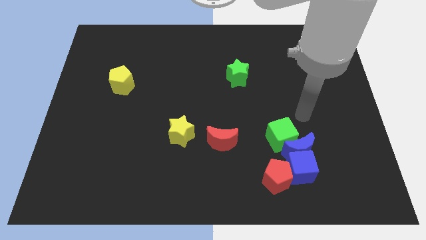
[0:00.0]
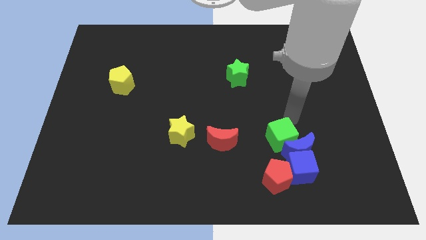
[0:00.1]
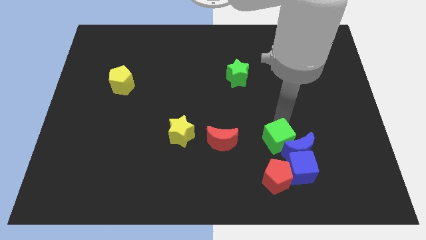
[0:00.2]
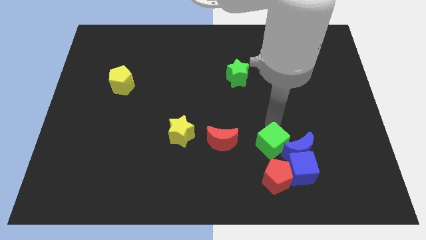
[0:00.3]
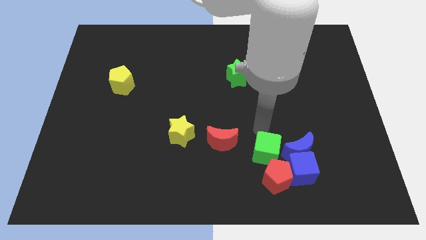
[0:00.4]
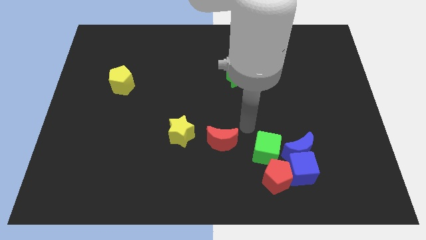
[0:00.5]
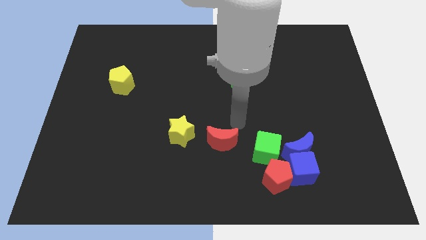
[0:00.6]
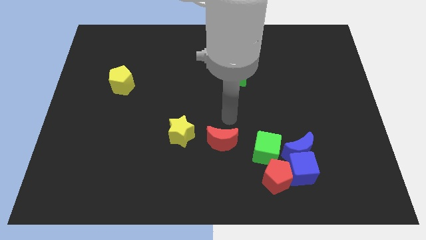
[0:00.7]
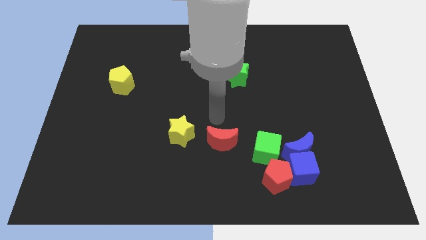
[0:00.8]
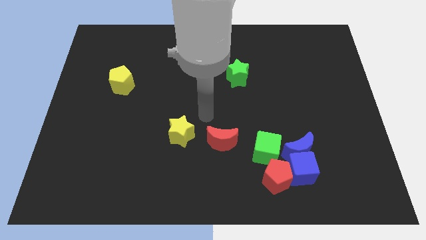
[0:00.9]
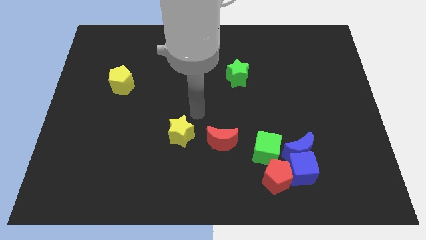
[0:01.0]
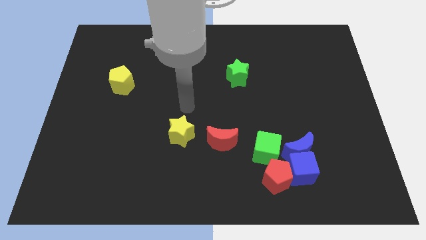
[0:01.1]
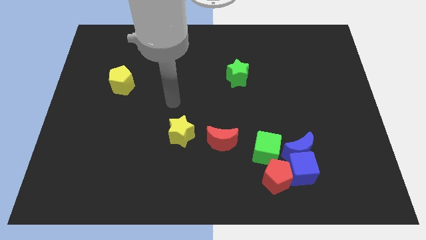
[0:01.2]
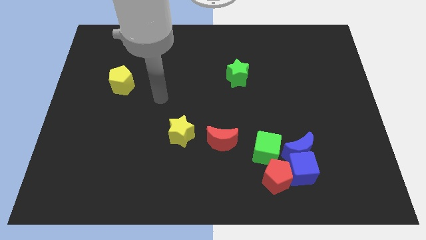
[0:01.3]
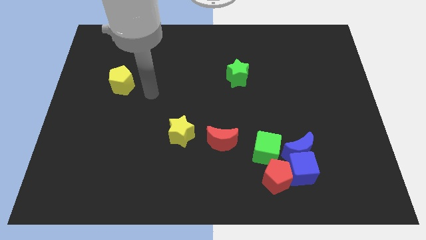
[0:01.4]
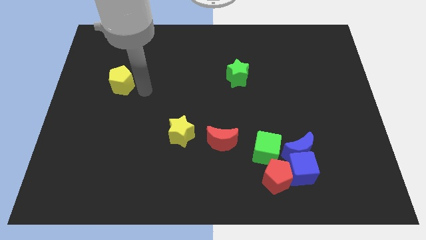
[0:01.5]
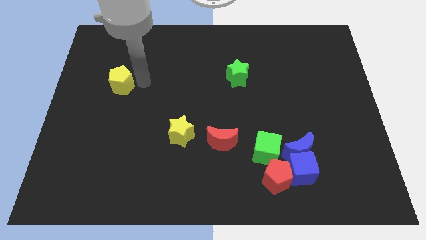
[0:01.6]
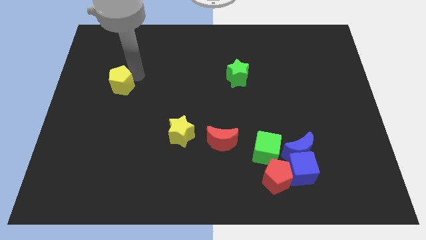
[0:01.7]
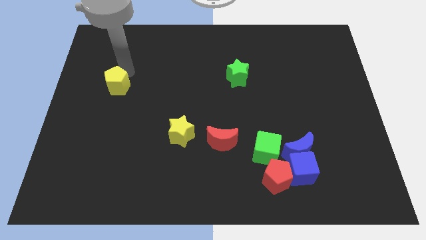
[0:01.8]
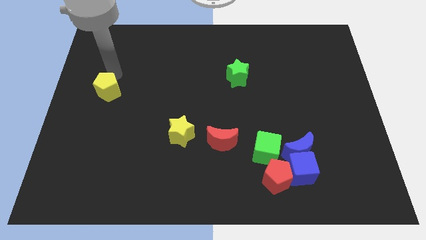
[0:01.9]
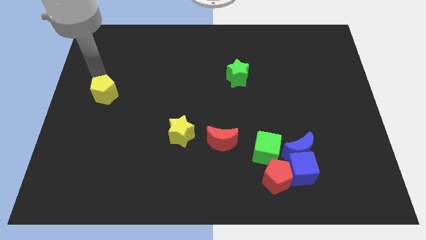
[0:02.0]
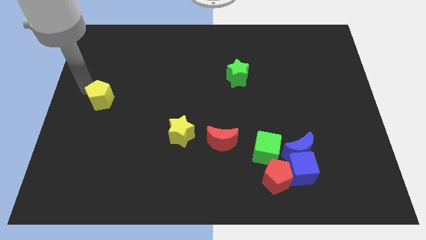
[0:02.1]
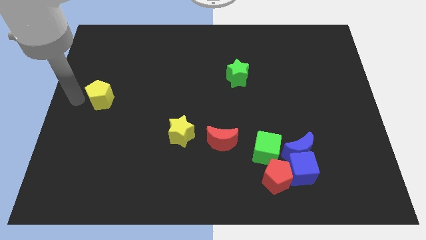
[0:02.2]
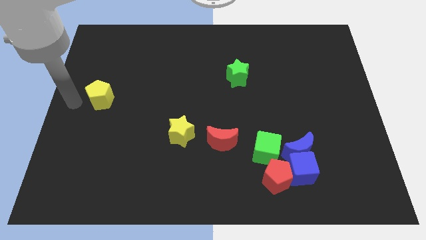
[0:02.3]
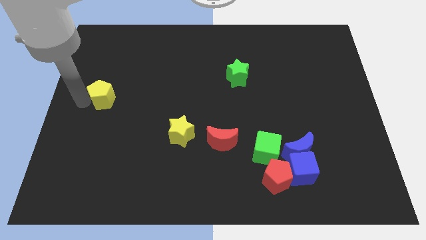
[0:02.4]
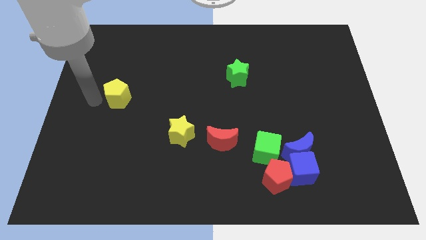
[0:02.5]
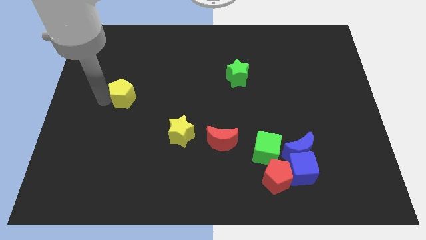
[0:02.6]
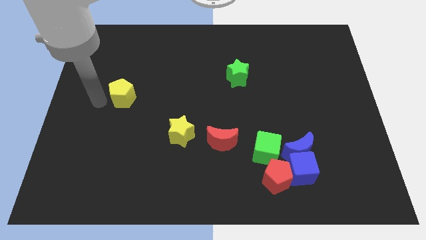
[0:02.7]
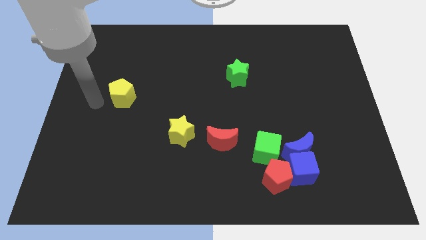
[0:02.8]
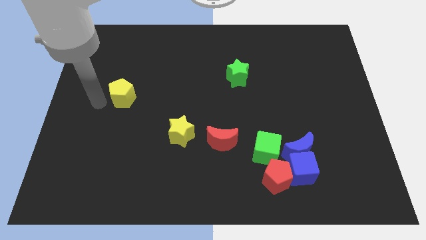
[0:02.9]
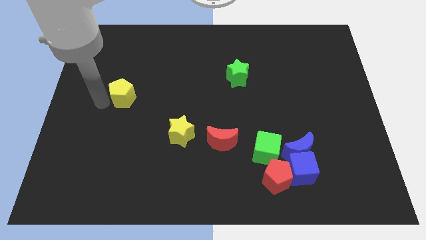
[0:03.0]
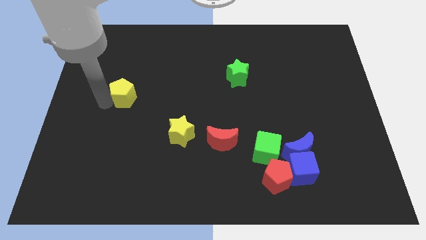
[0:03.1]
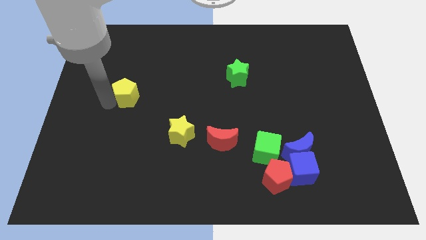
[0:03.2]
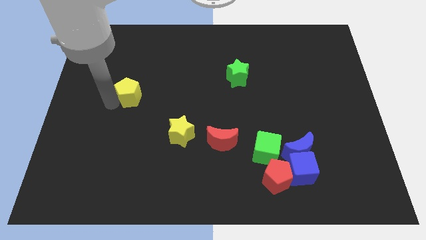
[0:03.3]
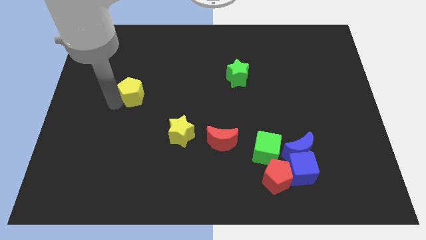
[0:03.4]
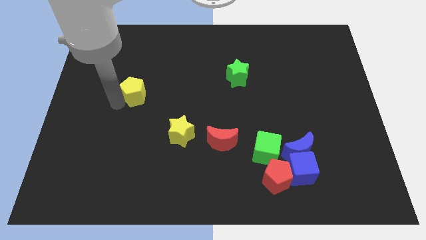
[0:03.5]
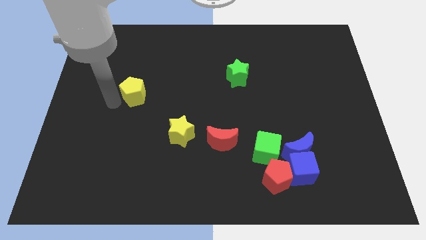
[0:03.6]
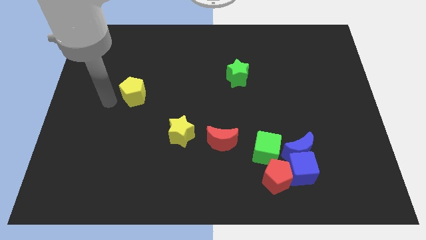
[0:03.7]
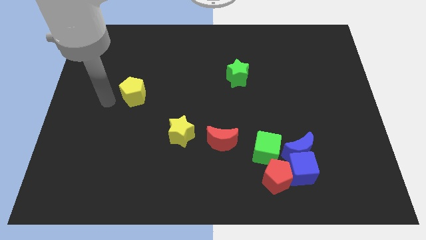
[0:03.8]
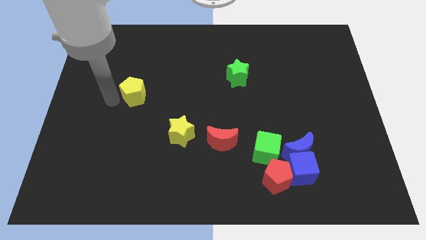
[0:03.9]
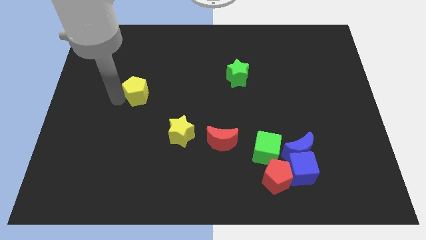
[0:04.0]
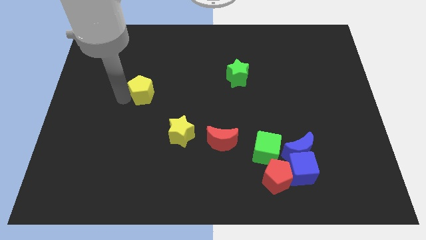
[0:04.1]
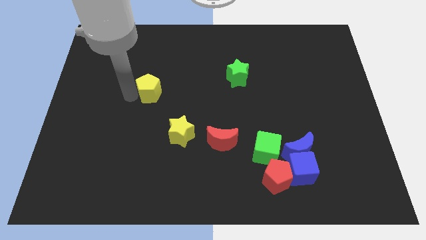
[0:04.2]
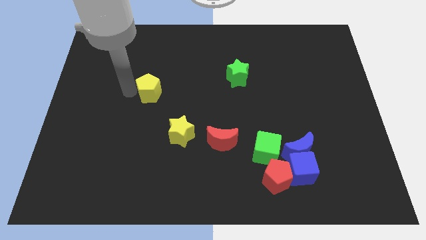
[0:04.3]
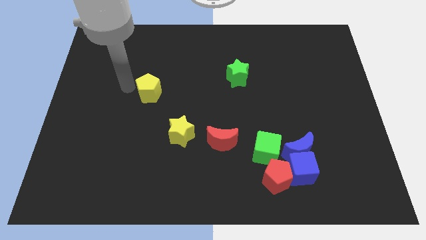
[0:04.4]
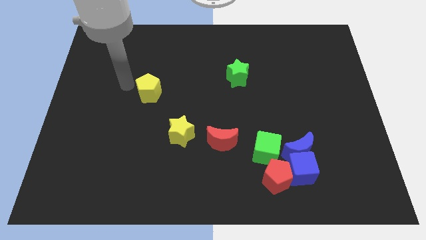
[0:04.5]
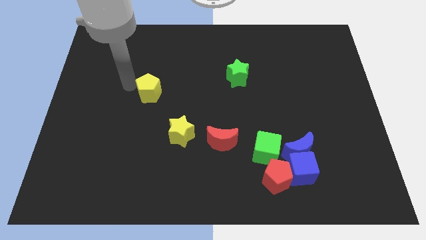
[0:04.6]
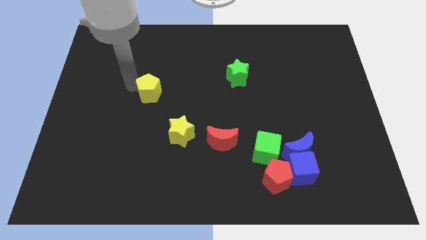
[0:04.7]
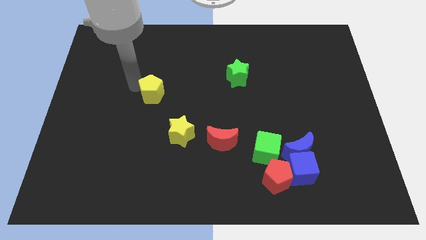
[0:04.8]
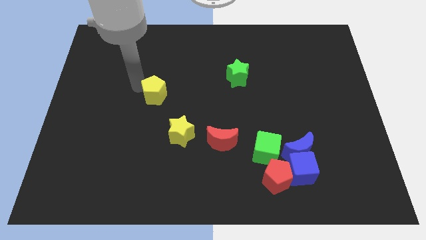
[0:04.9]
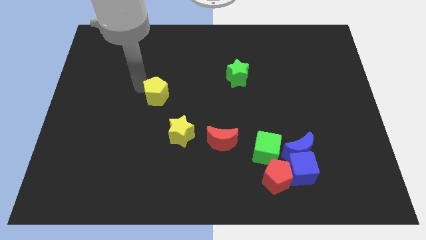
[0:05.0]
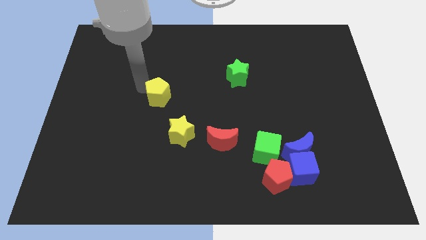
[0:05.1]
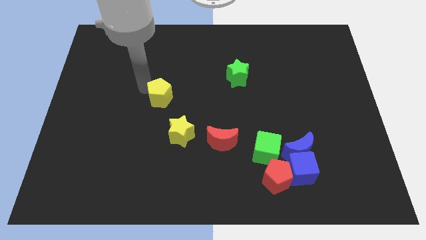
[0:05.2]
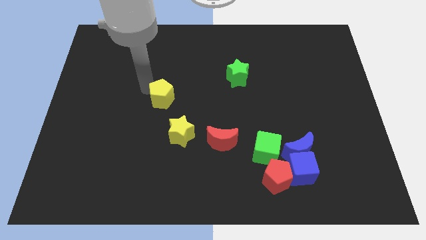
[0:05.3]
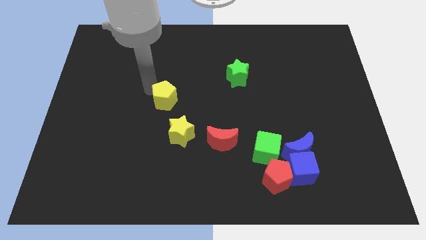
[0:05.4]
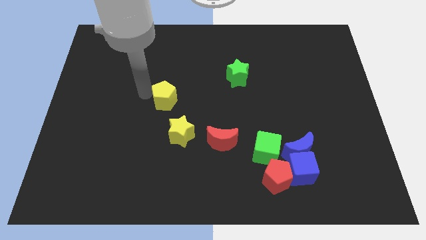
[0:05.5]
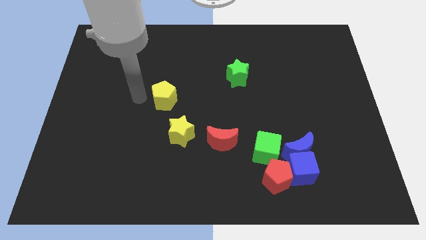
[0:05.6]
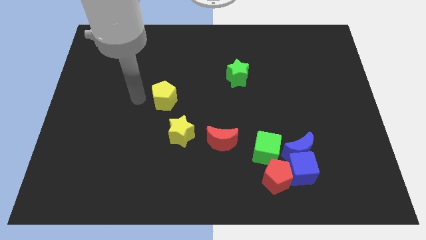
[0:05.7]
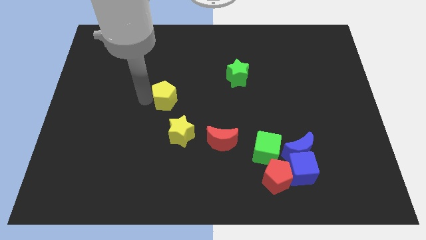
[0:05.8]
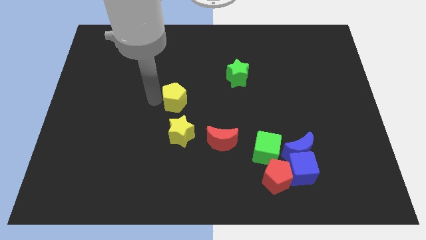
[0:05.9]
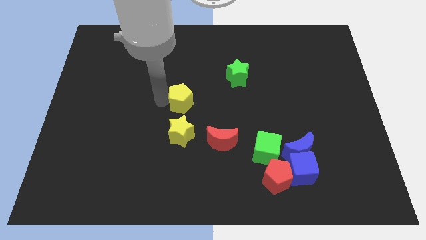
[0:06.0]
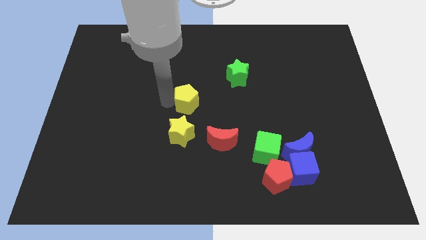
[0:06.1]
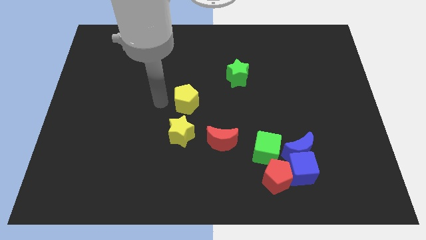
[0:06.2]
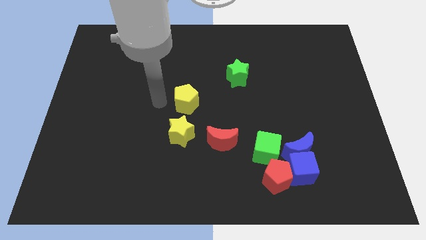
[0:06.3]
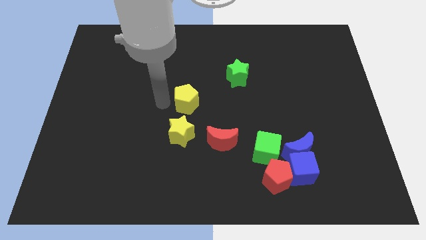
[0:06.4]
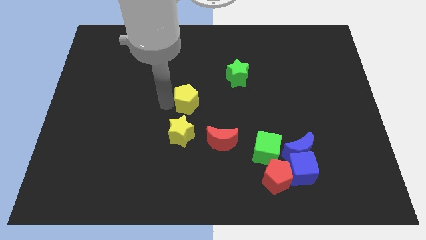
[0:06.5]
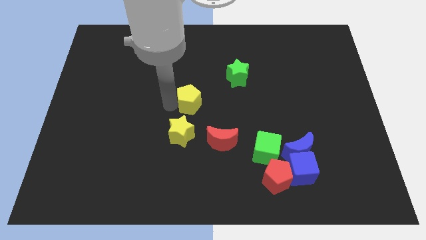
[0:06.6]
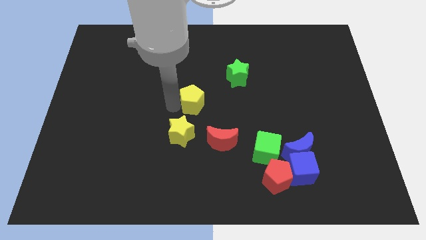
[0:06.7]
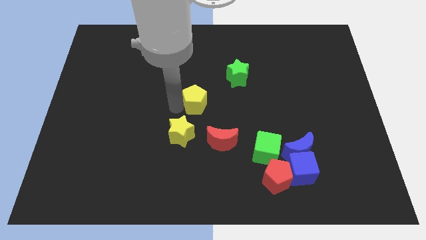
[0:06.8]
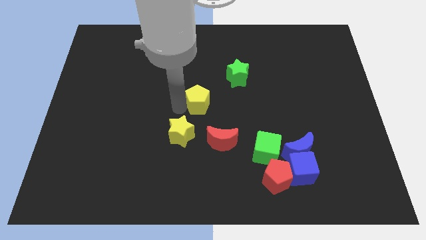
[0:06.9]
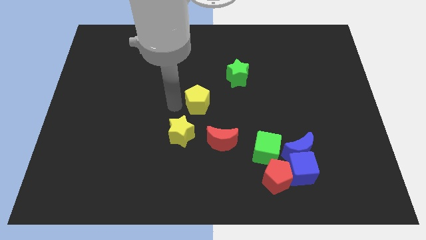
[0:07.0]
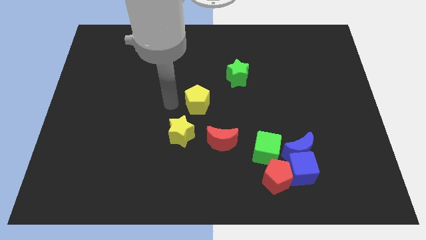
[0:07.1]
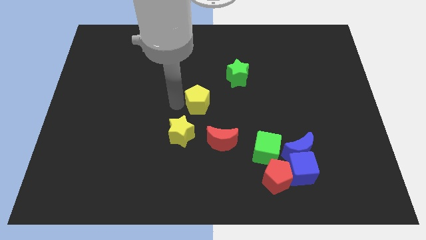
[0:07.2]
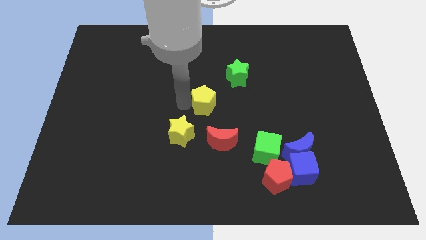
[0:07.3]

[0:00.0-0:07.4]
move the yellow pentagon to the top side of the red moon
